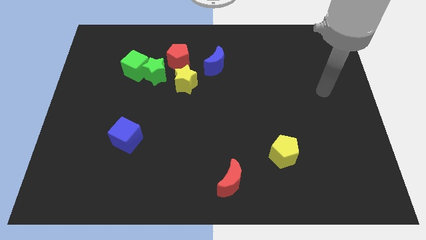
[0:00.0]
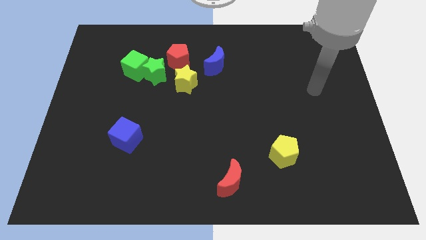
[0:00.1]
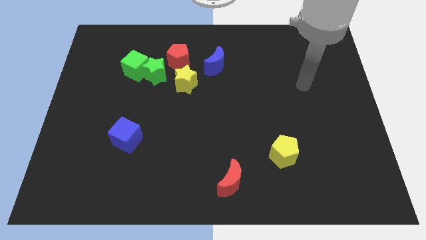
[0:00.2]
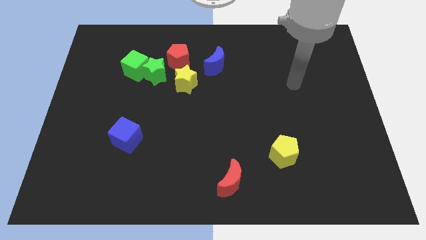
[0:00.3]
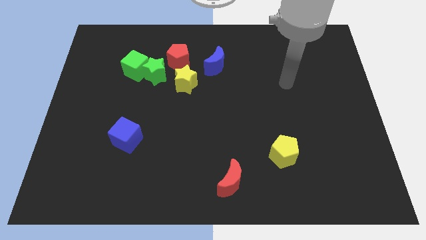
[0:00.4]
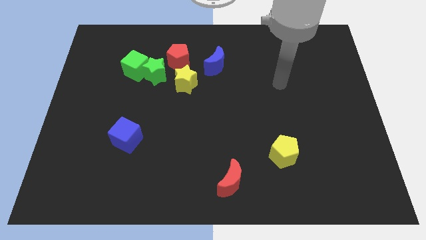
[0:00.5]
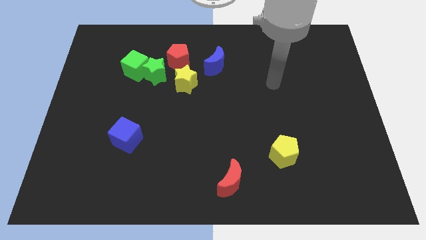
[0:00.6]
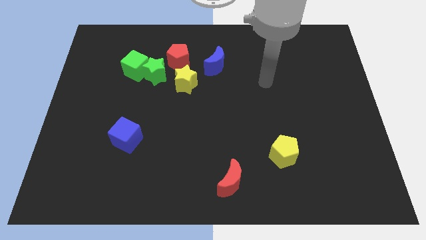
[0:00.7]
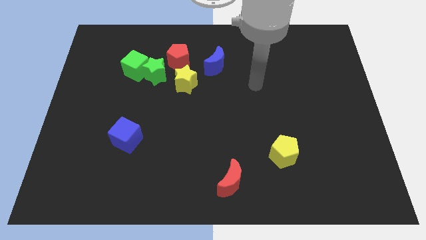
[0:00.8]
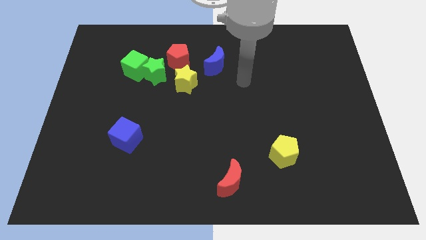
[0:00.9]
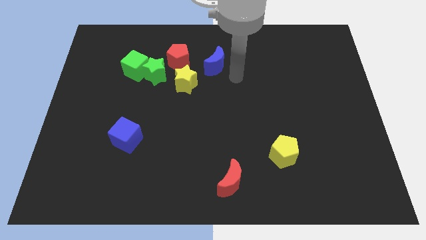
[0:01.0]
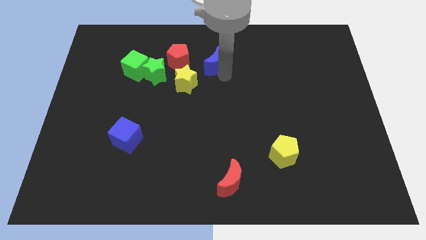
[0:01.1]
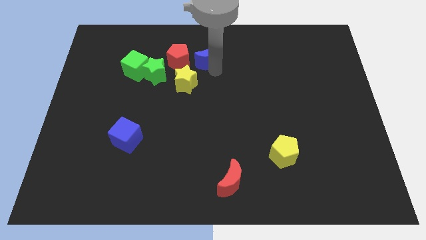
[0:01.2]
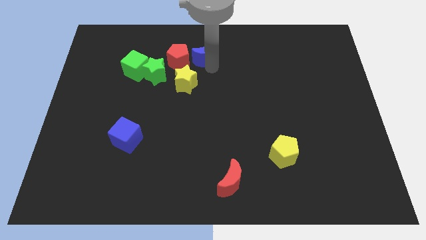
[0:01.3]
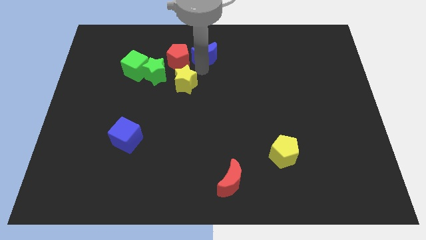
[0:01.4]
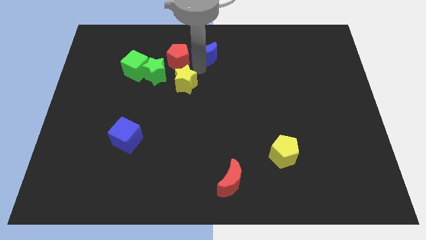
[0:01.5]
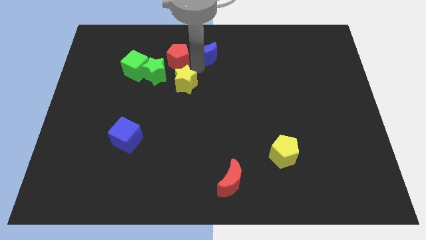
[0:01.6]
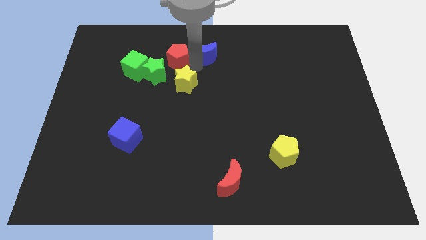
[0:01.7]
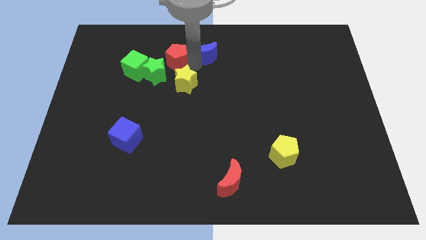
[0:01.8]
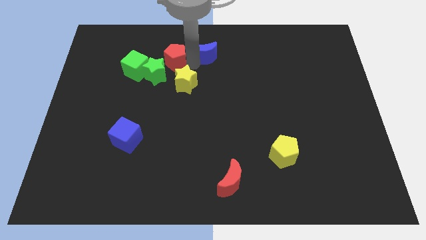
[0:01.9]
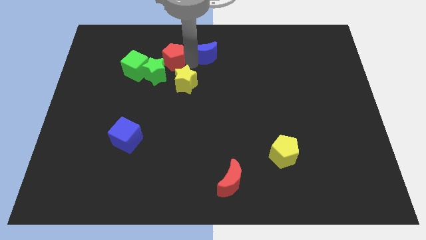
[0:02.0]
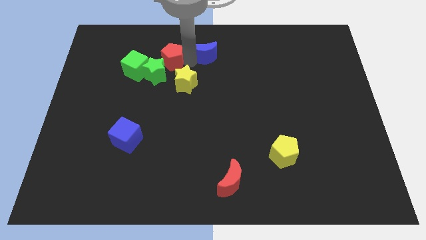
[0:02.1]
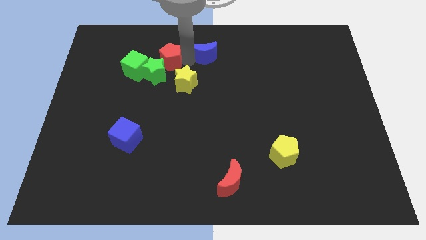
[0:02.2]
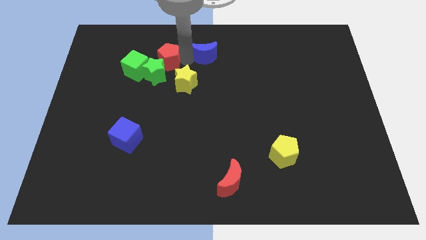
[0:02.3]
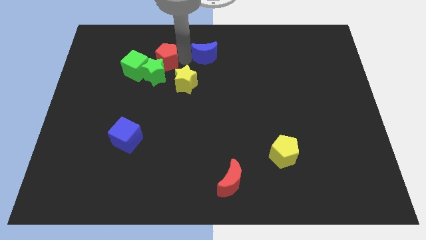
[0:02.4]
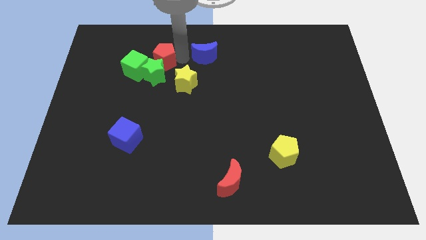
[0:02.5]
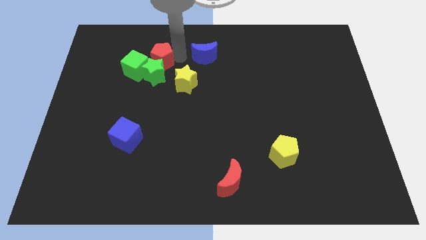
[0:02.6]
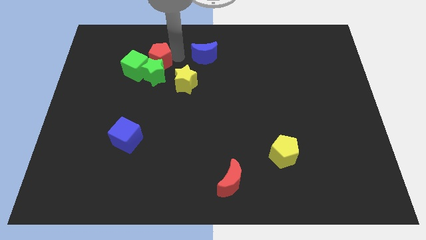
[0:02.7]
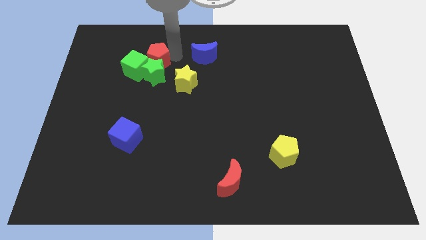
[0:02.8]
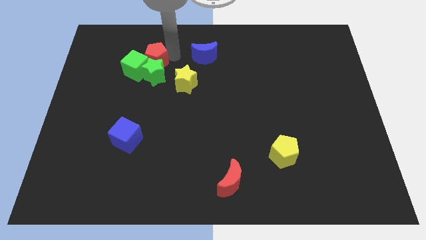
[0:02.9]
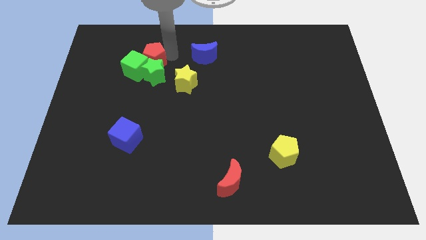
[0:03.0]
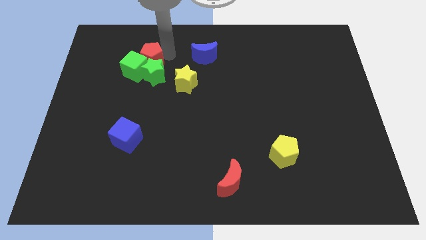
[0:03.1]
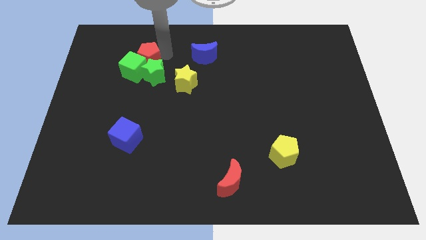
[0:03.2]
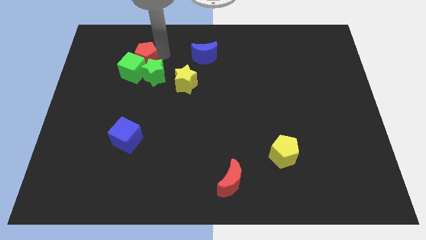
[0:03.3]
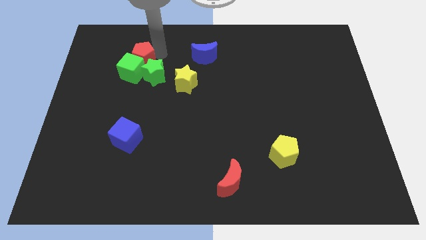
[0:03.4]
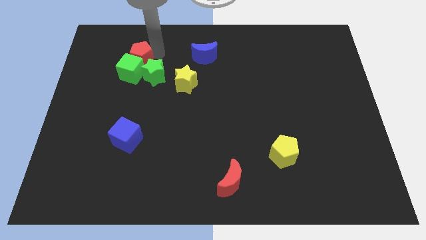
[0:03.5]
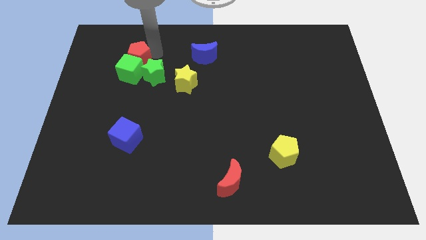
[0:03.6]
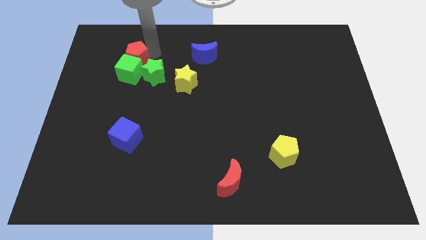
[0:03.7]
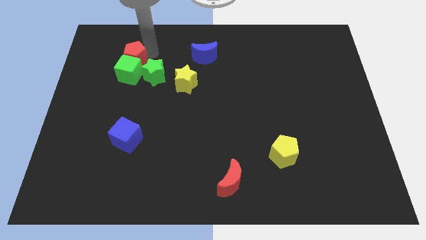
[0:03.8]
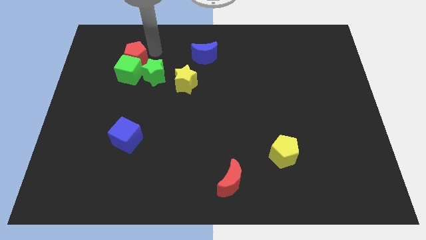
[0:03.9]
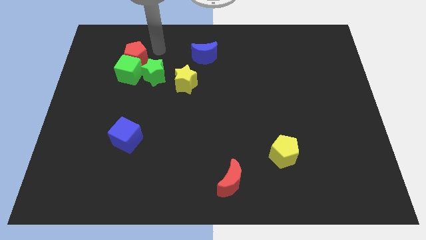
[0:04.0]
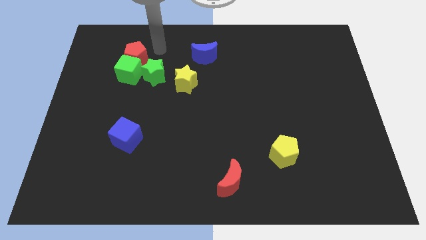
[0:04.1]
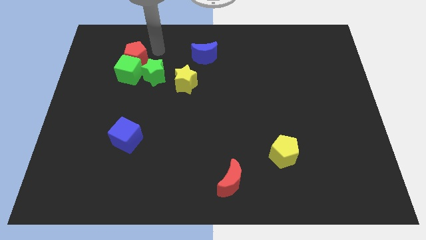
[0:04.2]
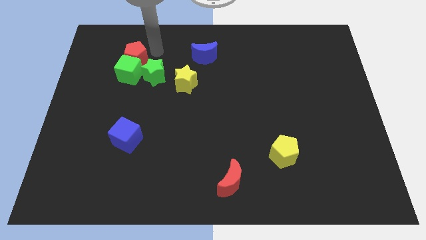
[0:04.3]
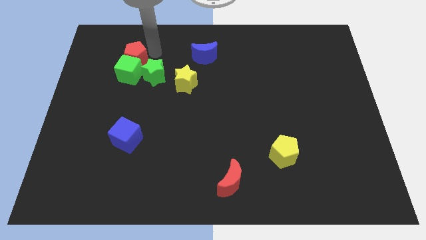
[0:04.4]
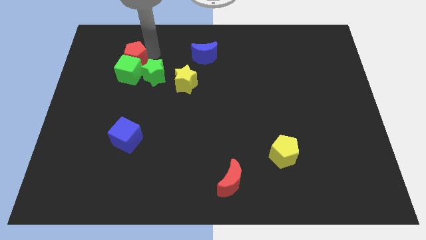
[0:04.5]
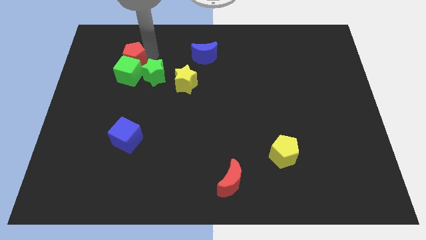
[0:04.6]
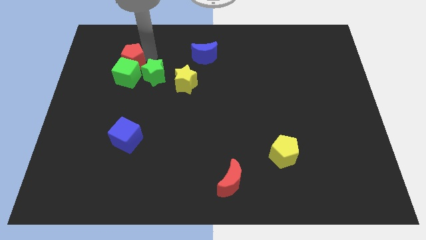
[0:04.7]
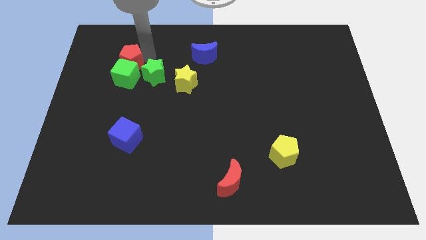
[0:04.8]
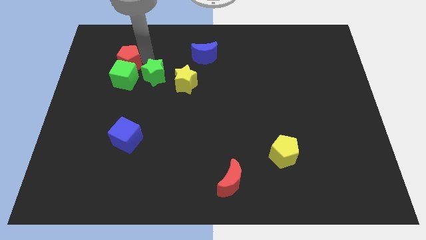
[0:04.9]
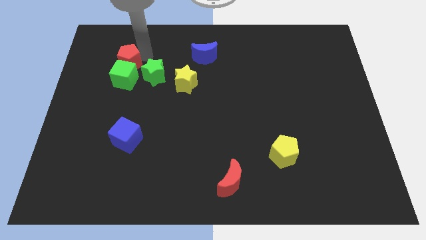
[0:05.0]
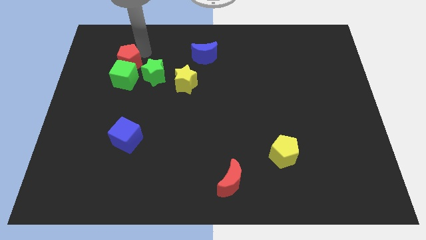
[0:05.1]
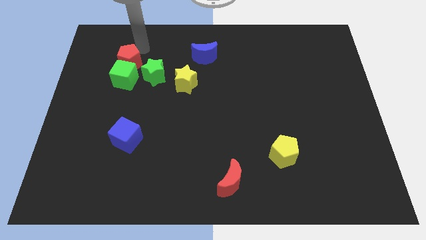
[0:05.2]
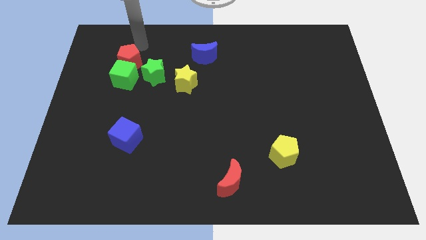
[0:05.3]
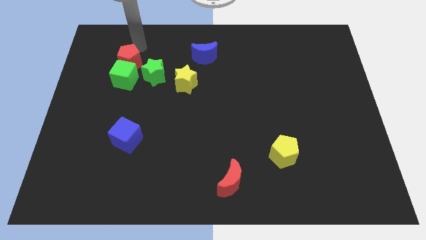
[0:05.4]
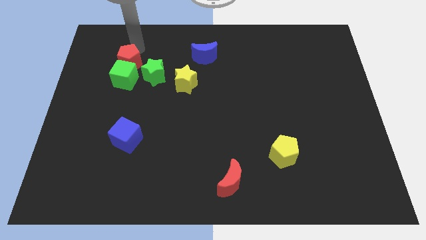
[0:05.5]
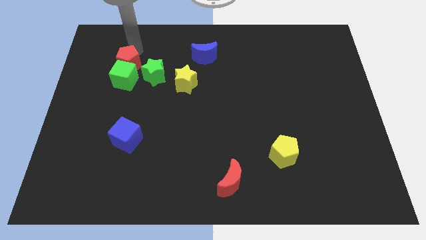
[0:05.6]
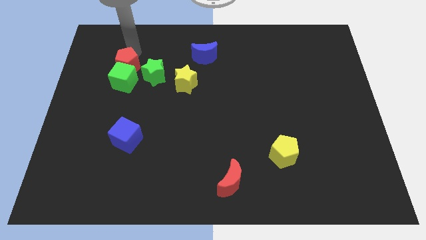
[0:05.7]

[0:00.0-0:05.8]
slightly slide the red pentagon down and left diagonally

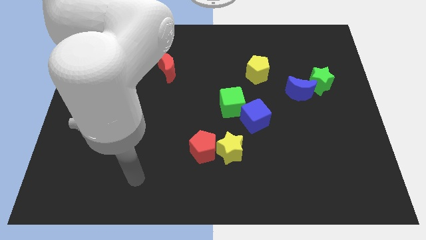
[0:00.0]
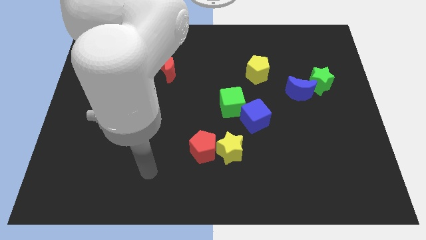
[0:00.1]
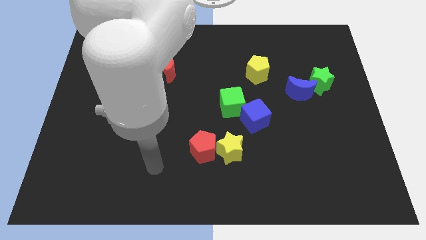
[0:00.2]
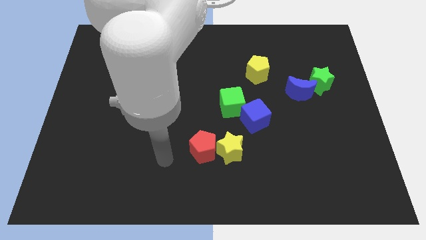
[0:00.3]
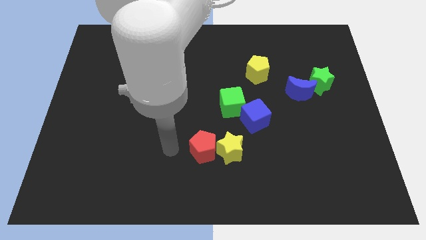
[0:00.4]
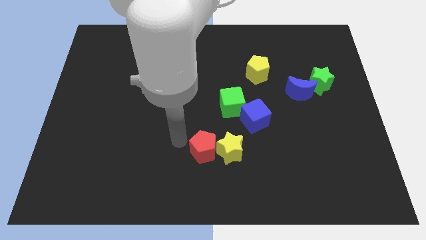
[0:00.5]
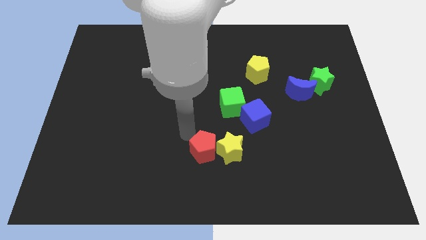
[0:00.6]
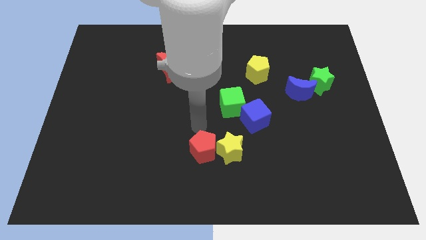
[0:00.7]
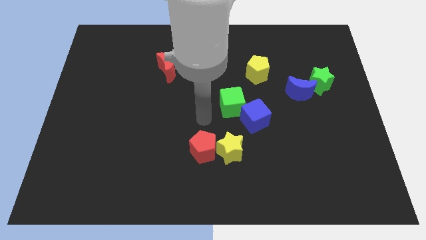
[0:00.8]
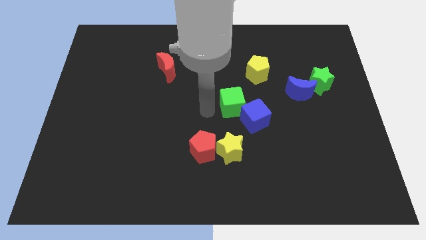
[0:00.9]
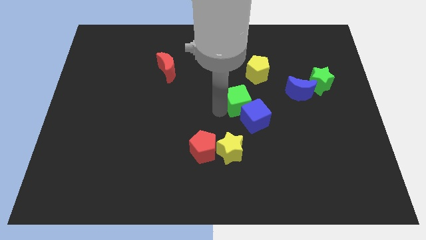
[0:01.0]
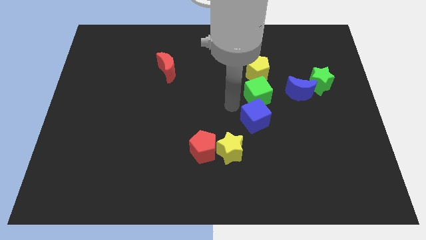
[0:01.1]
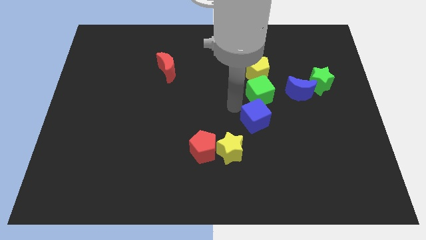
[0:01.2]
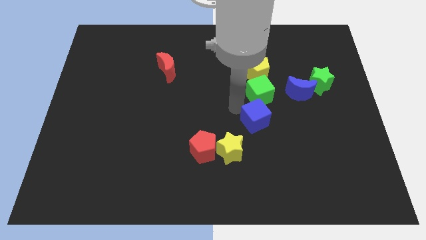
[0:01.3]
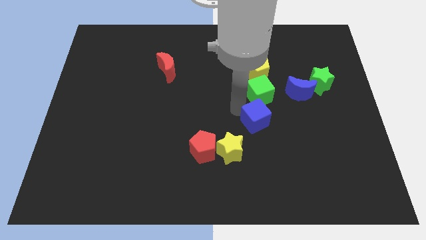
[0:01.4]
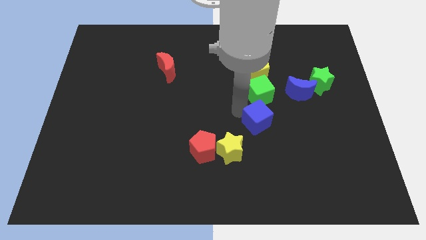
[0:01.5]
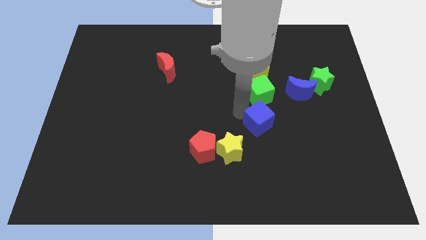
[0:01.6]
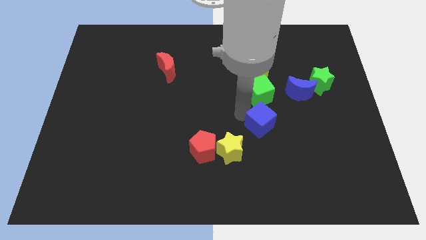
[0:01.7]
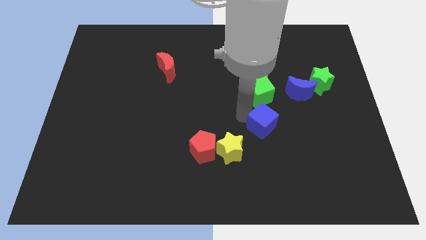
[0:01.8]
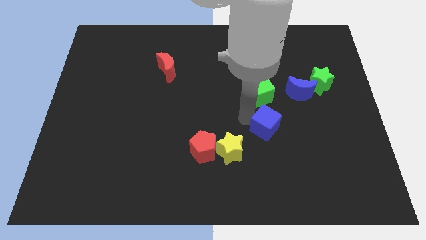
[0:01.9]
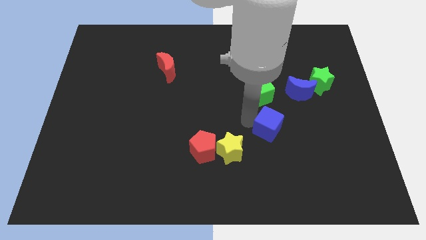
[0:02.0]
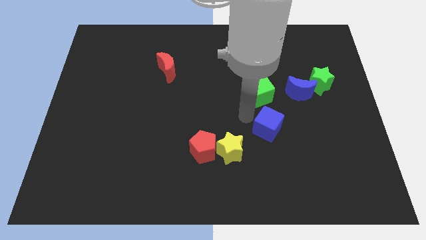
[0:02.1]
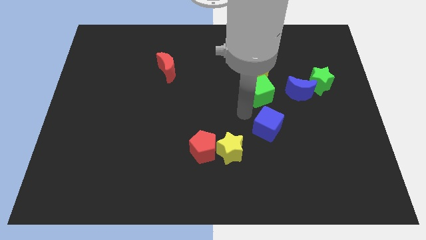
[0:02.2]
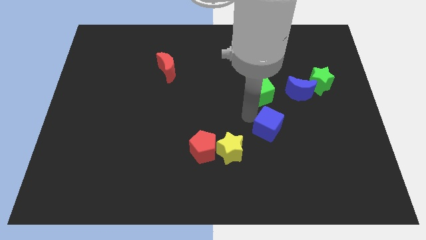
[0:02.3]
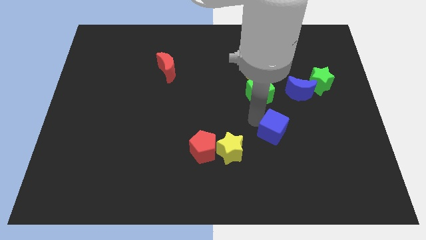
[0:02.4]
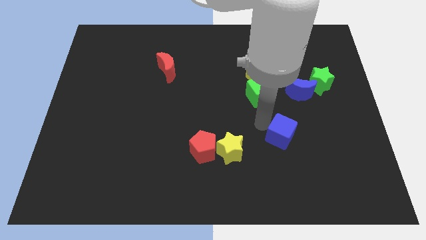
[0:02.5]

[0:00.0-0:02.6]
slide the blue cube slightly diagonally downwards and to the right
